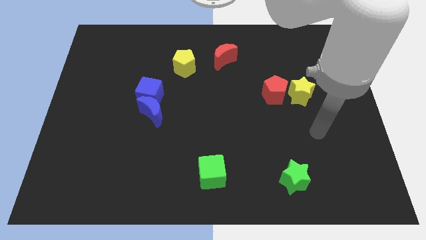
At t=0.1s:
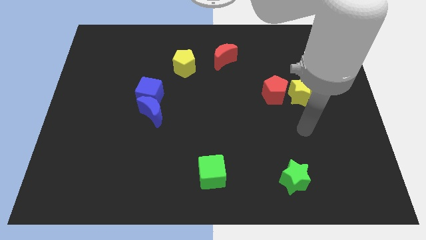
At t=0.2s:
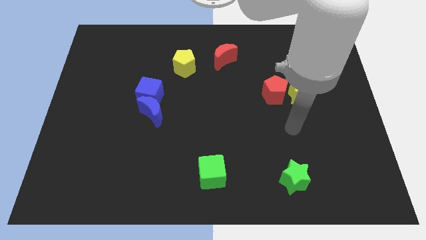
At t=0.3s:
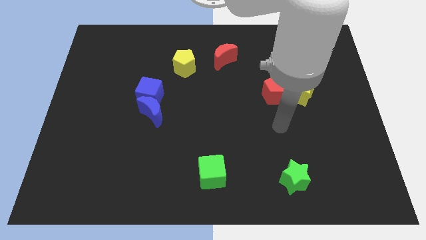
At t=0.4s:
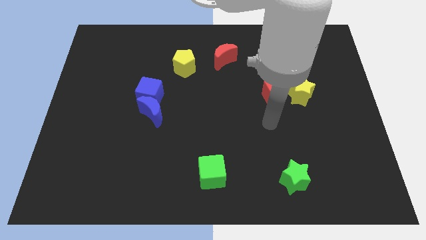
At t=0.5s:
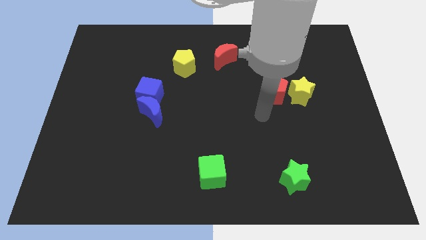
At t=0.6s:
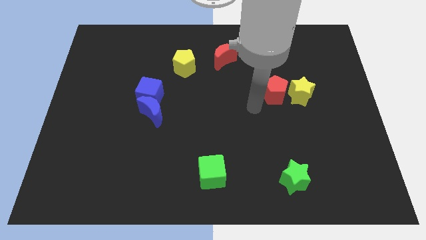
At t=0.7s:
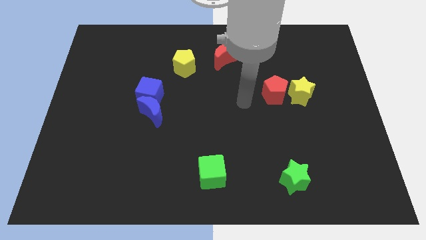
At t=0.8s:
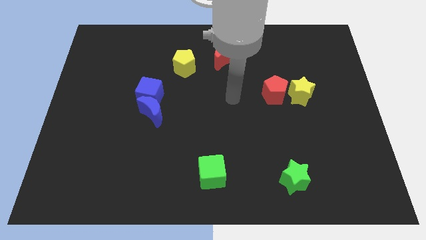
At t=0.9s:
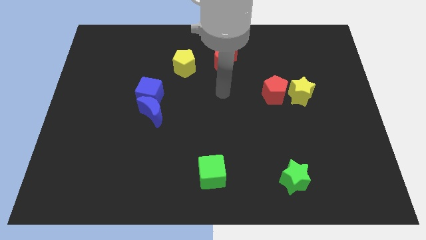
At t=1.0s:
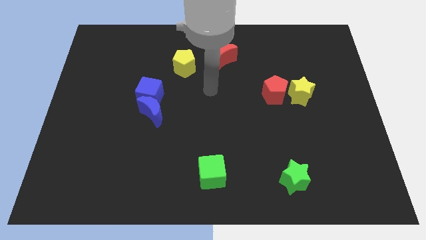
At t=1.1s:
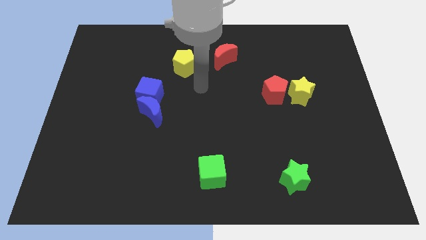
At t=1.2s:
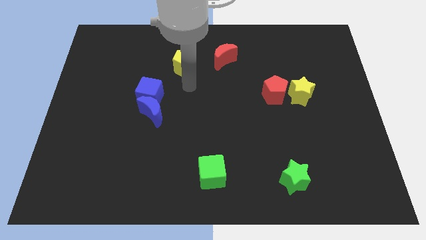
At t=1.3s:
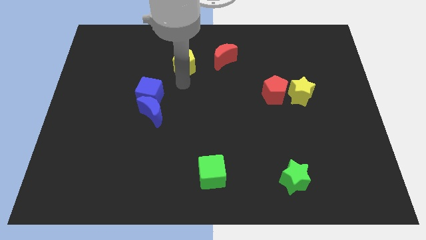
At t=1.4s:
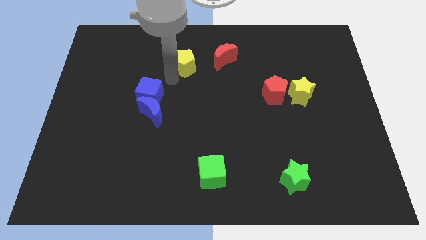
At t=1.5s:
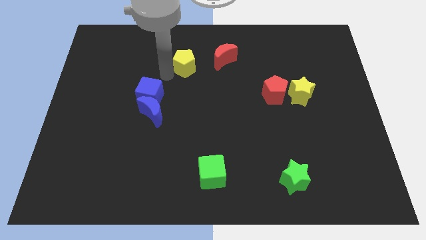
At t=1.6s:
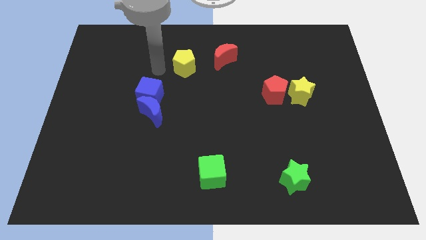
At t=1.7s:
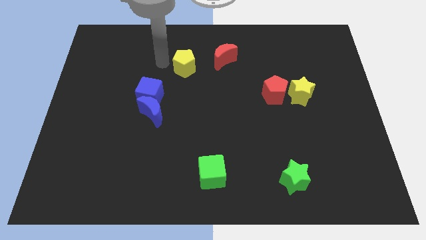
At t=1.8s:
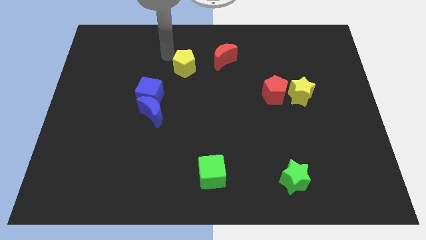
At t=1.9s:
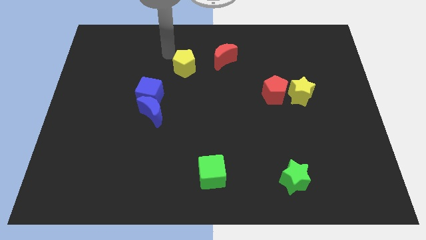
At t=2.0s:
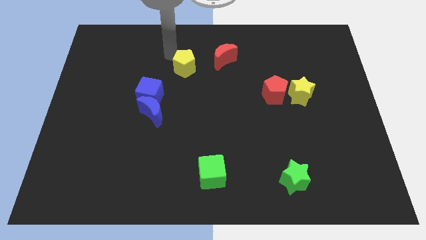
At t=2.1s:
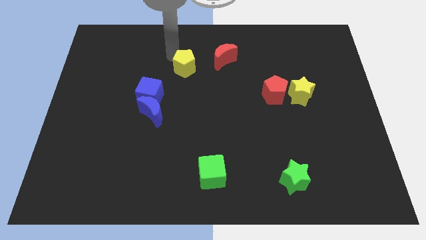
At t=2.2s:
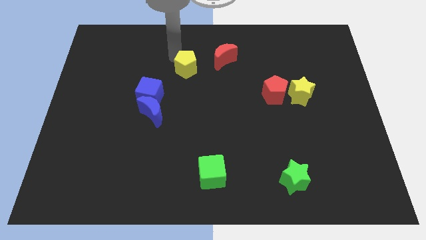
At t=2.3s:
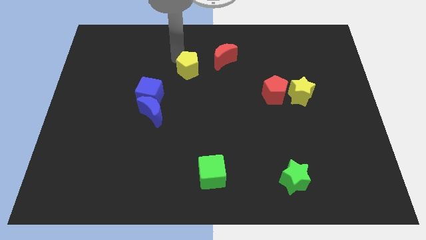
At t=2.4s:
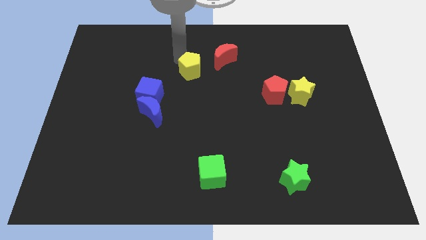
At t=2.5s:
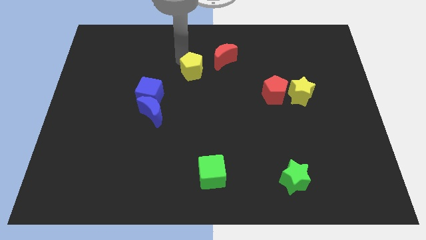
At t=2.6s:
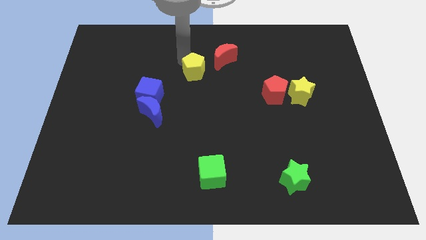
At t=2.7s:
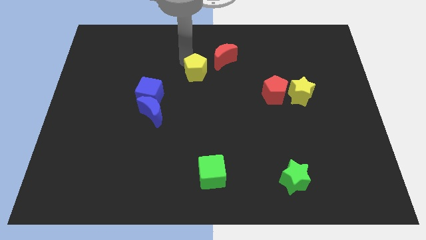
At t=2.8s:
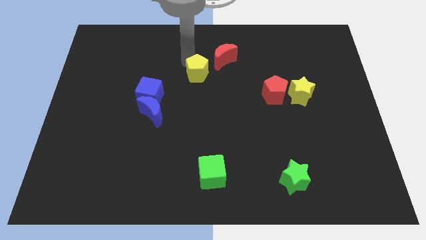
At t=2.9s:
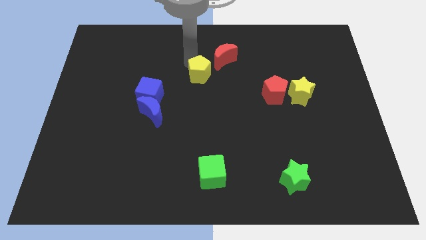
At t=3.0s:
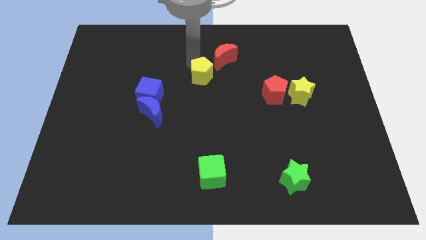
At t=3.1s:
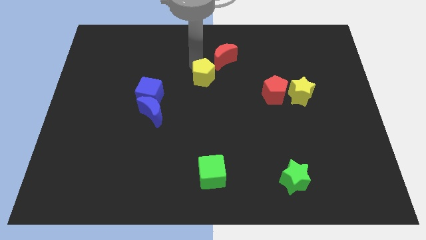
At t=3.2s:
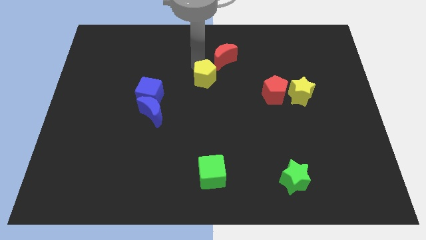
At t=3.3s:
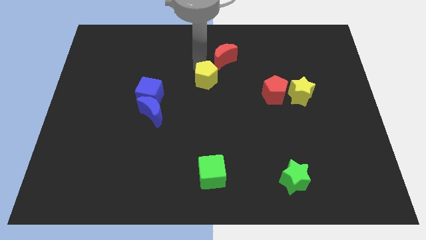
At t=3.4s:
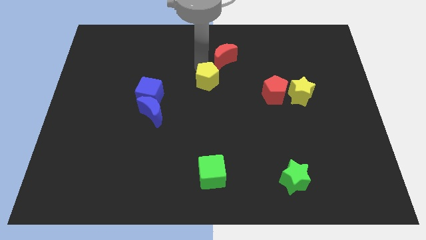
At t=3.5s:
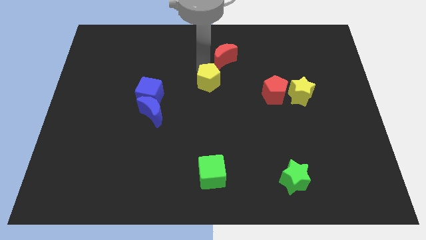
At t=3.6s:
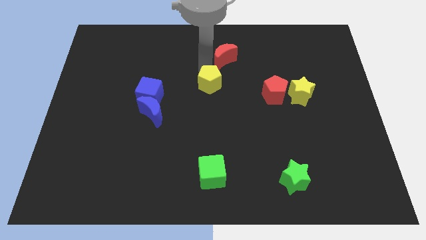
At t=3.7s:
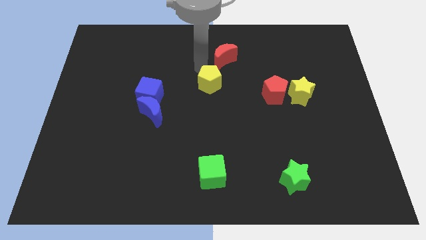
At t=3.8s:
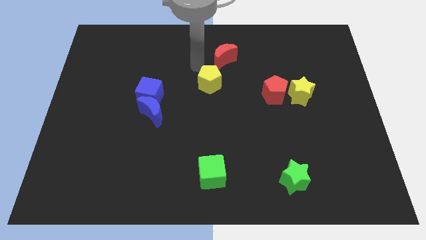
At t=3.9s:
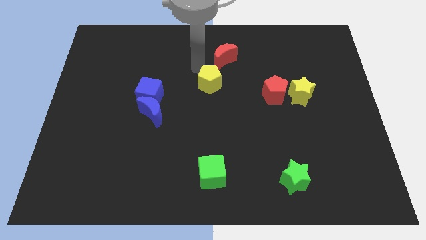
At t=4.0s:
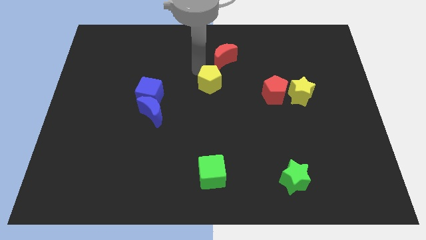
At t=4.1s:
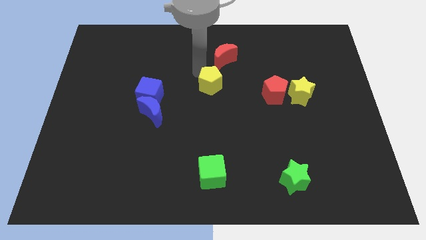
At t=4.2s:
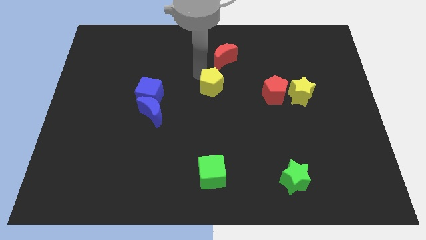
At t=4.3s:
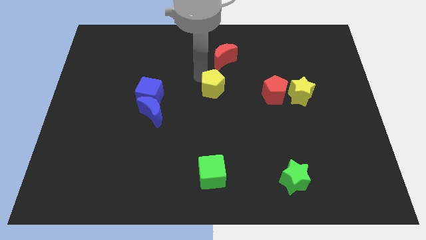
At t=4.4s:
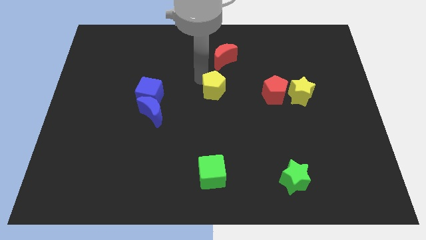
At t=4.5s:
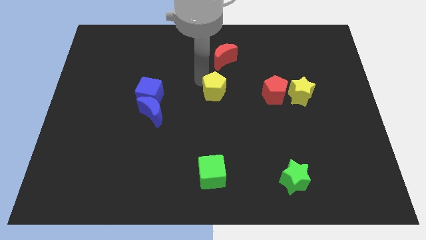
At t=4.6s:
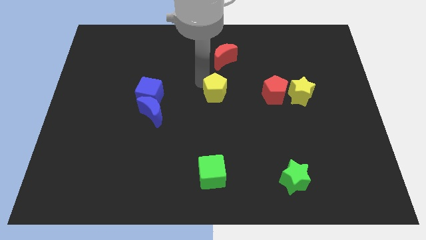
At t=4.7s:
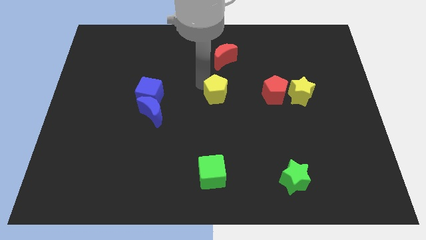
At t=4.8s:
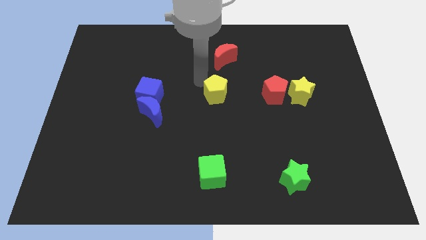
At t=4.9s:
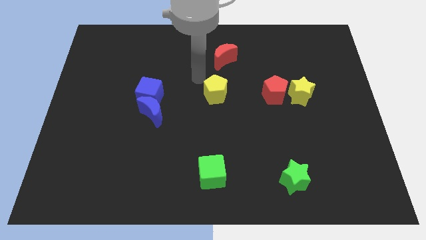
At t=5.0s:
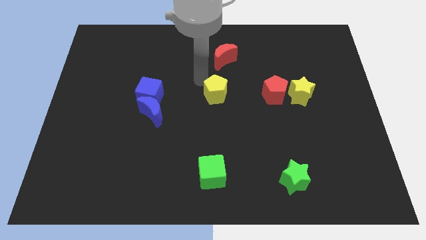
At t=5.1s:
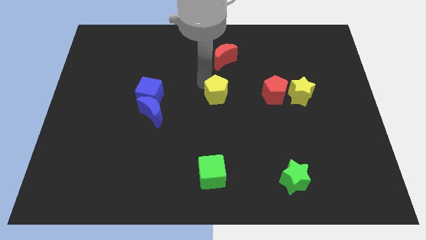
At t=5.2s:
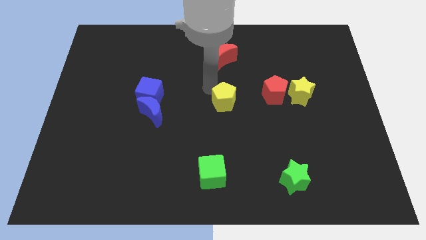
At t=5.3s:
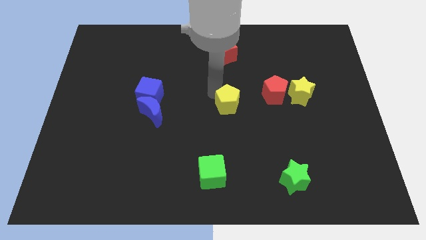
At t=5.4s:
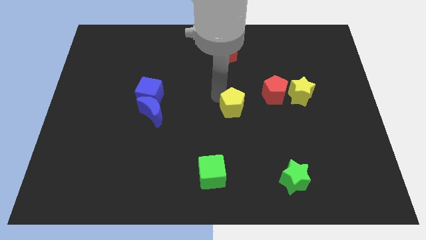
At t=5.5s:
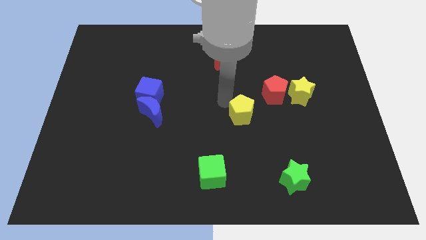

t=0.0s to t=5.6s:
push the yellow pentagon down and right diagonally

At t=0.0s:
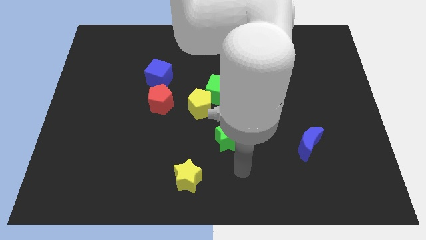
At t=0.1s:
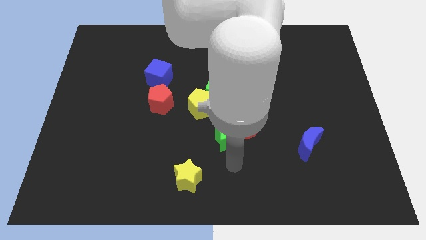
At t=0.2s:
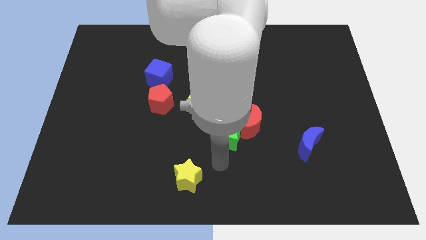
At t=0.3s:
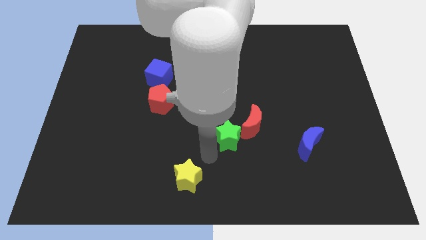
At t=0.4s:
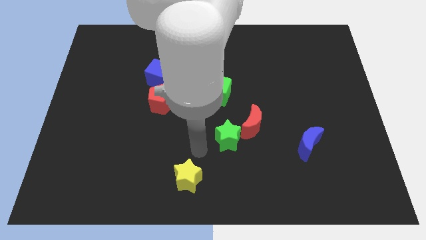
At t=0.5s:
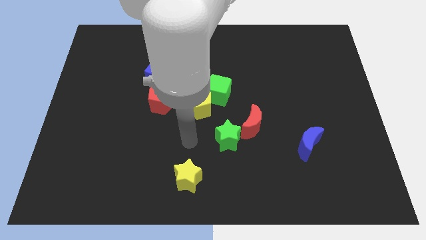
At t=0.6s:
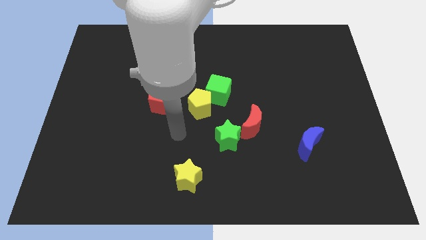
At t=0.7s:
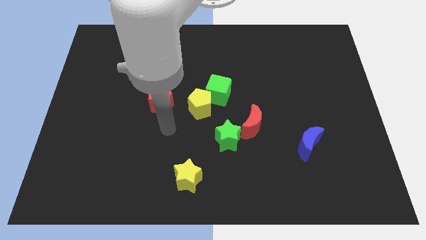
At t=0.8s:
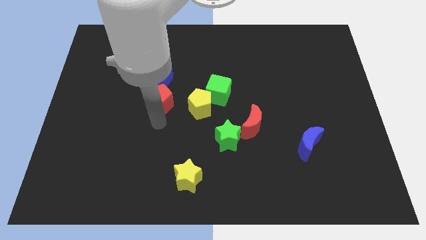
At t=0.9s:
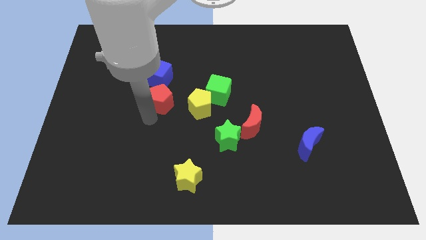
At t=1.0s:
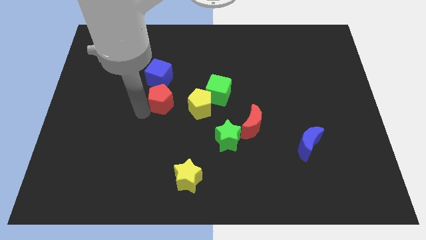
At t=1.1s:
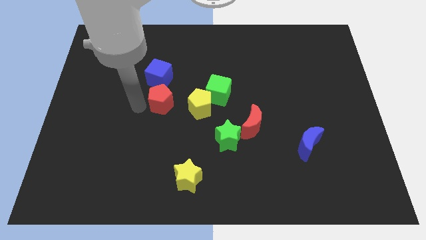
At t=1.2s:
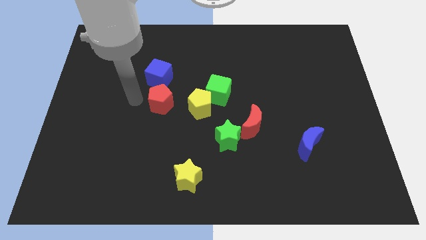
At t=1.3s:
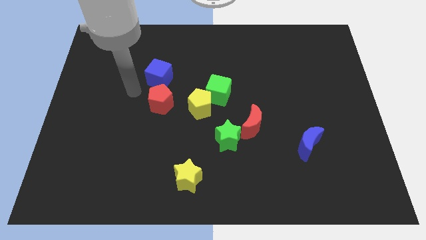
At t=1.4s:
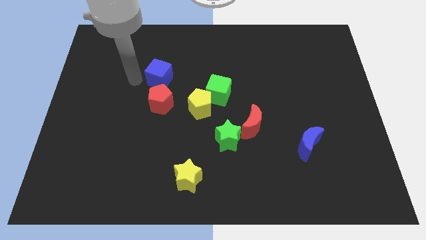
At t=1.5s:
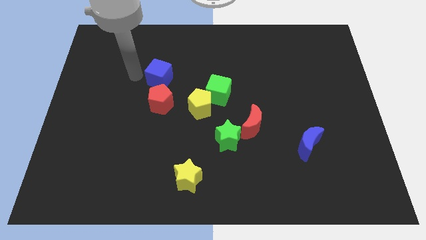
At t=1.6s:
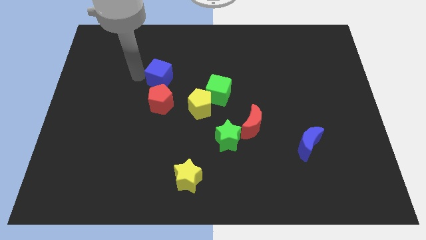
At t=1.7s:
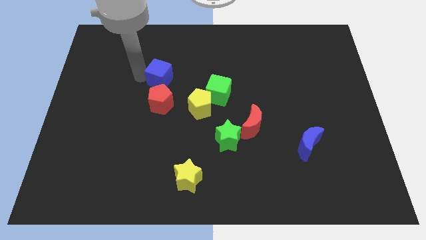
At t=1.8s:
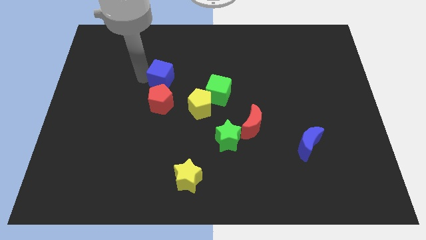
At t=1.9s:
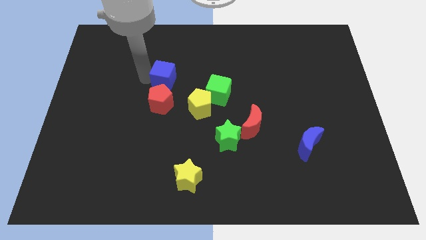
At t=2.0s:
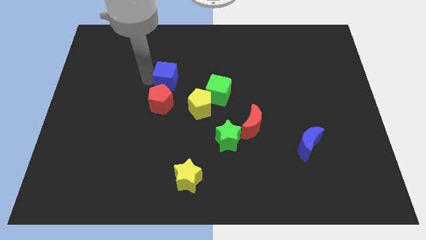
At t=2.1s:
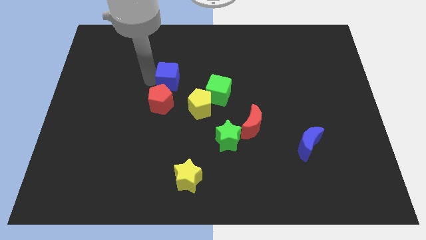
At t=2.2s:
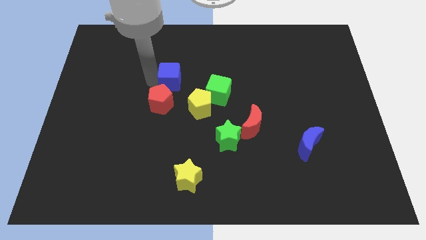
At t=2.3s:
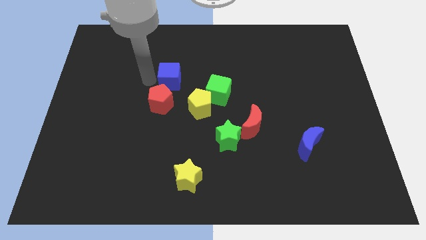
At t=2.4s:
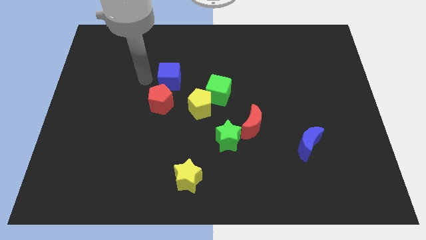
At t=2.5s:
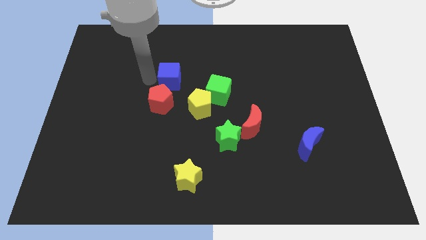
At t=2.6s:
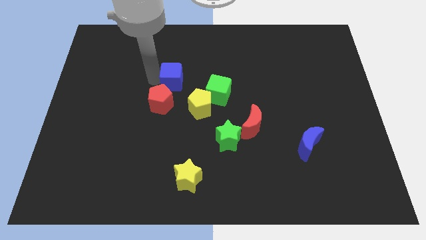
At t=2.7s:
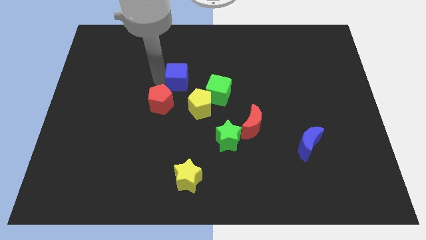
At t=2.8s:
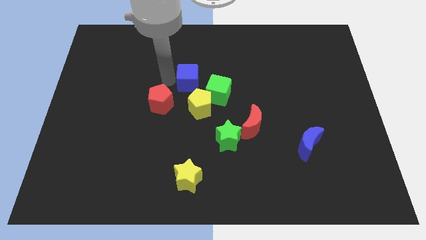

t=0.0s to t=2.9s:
move the blue cube a little right
